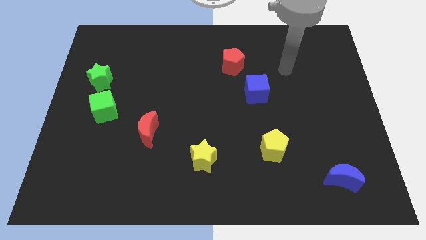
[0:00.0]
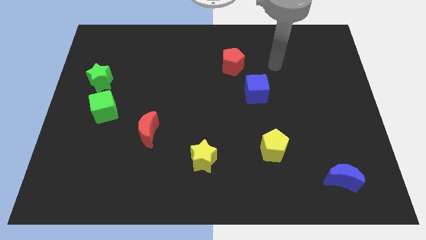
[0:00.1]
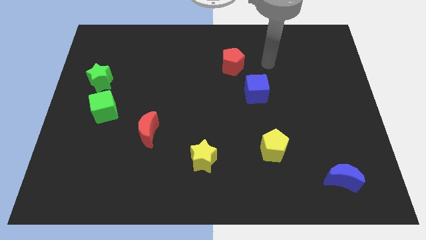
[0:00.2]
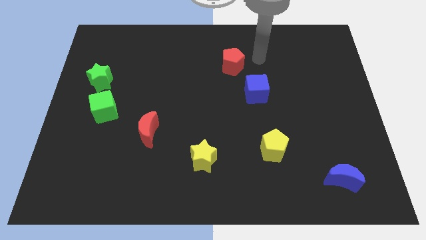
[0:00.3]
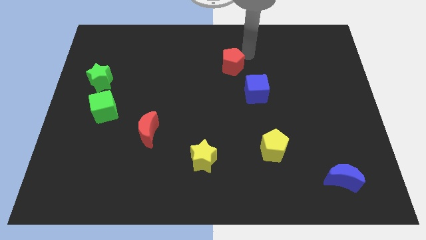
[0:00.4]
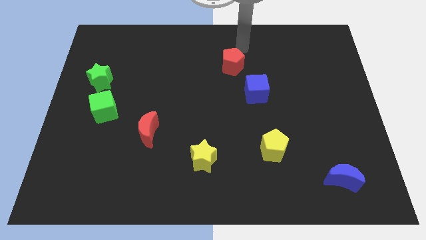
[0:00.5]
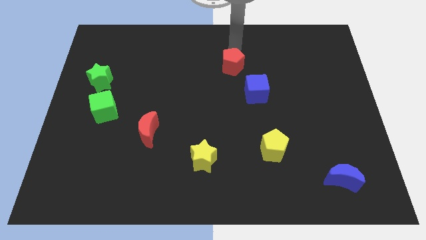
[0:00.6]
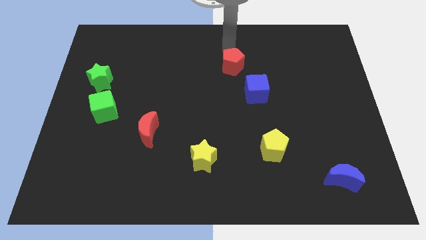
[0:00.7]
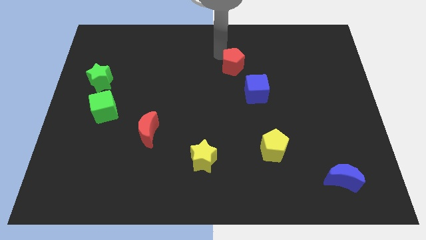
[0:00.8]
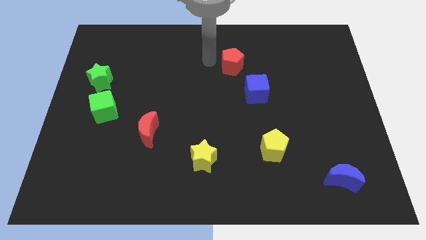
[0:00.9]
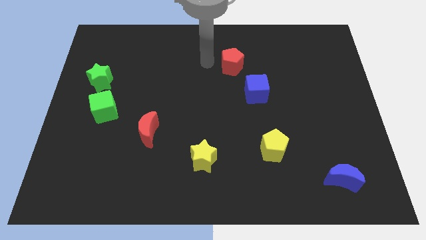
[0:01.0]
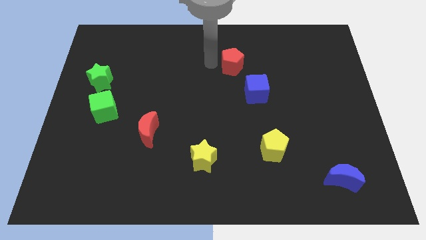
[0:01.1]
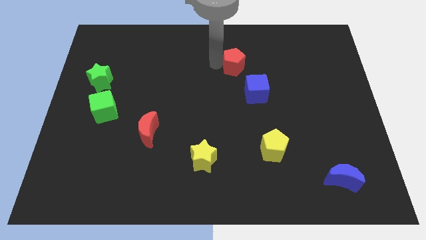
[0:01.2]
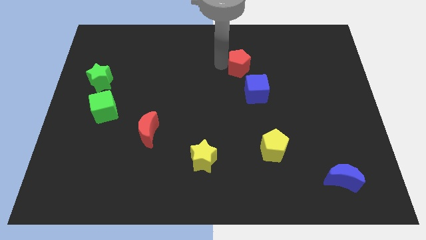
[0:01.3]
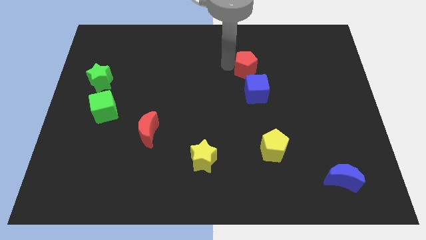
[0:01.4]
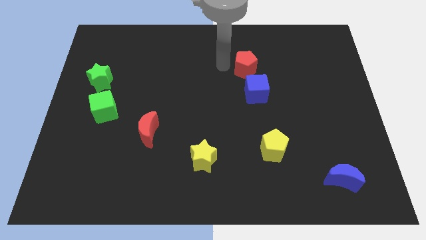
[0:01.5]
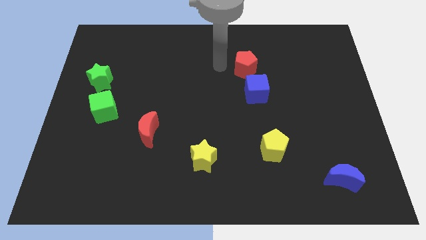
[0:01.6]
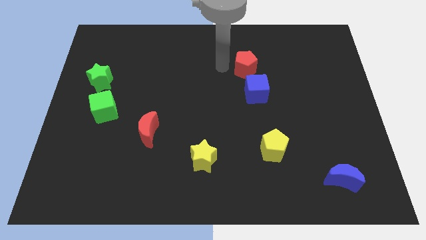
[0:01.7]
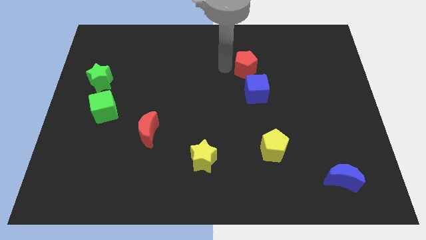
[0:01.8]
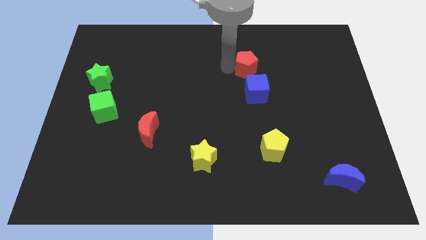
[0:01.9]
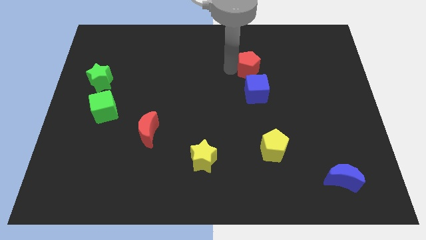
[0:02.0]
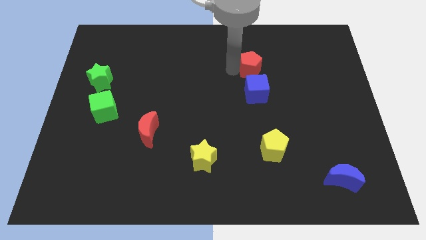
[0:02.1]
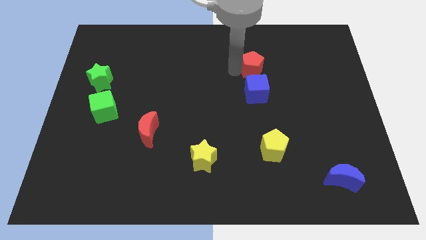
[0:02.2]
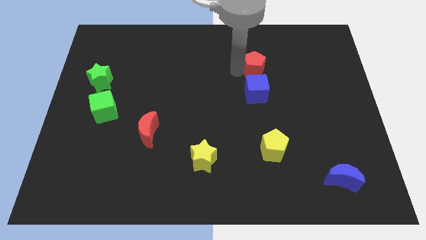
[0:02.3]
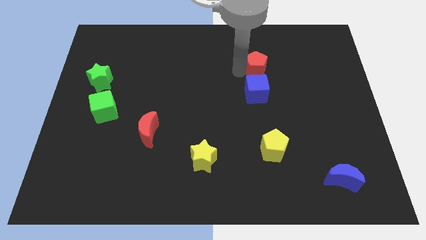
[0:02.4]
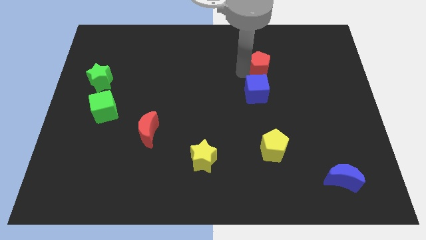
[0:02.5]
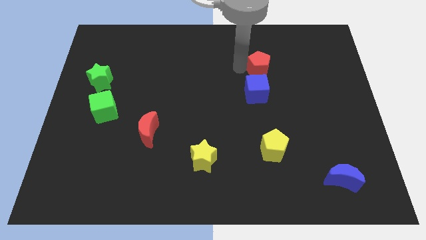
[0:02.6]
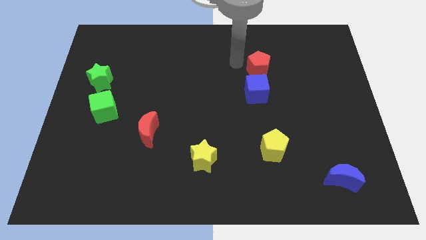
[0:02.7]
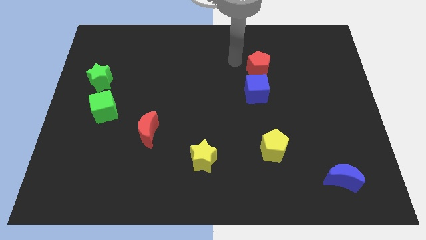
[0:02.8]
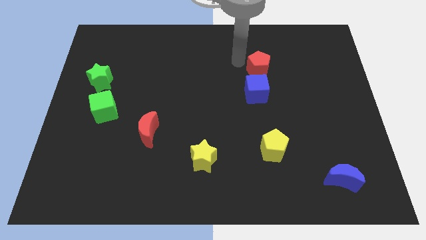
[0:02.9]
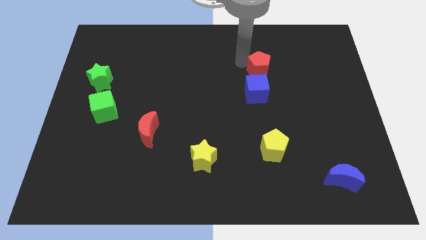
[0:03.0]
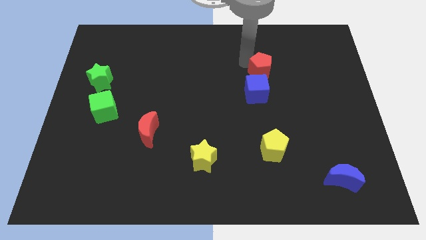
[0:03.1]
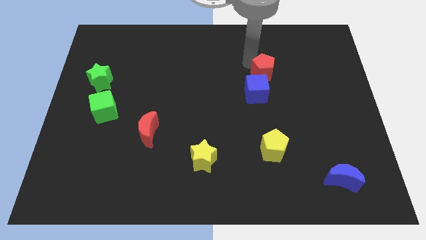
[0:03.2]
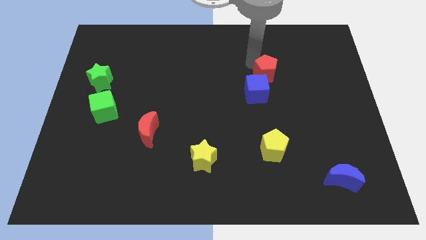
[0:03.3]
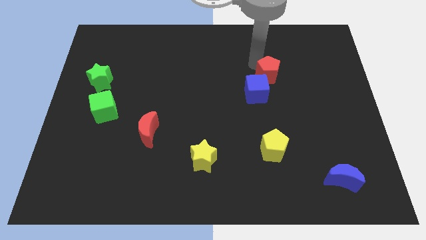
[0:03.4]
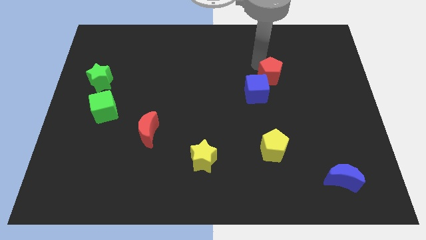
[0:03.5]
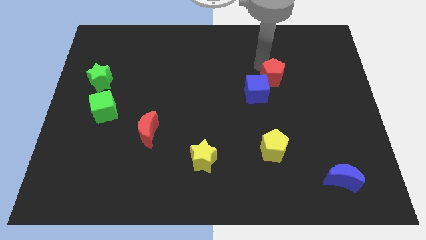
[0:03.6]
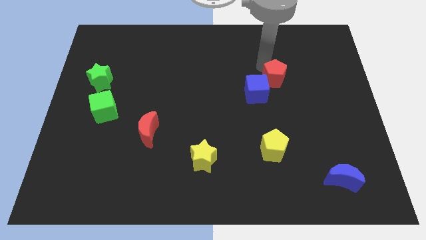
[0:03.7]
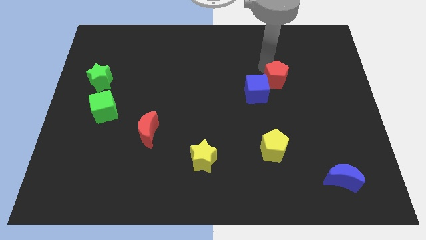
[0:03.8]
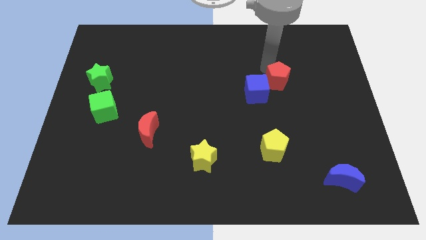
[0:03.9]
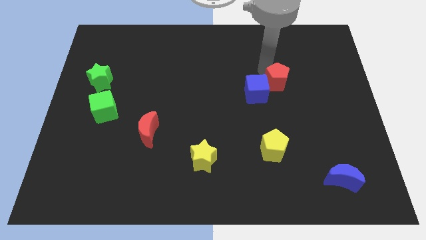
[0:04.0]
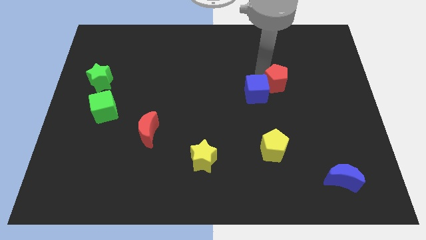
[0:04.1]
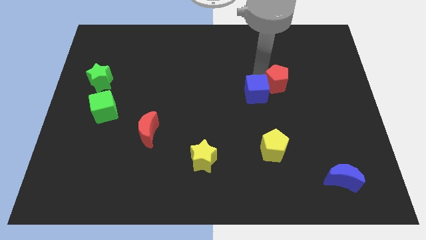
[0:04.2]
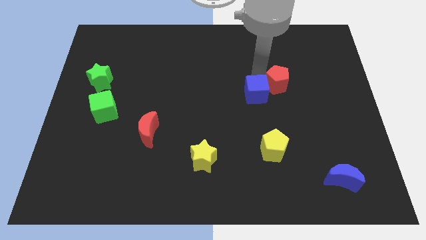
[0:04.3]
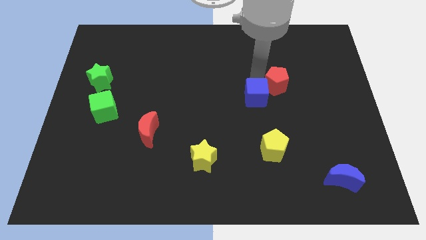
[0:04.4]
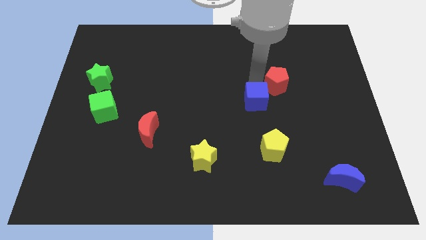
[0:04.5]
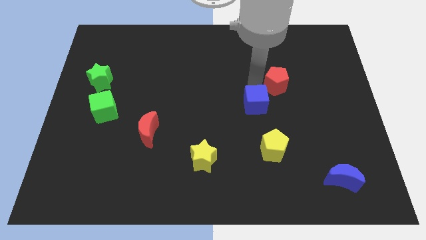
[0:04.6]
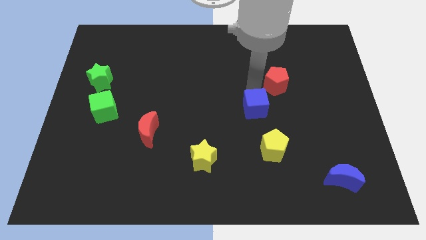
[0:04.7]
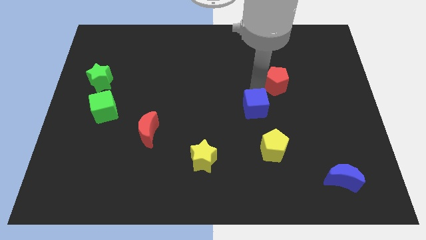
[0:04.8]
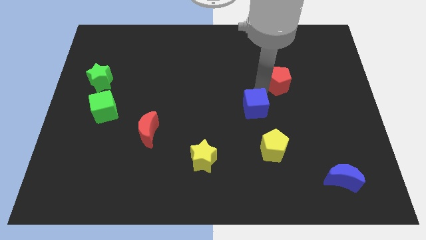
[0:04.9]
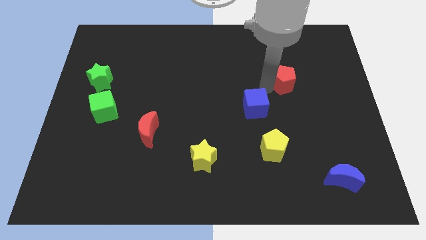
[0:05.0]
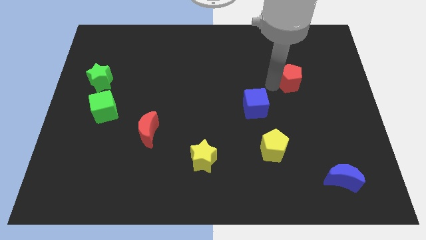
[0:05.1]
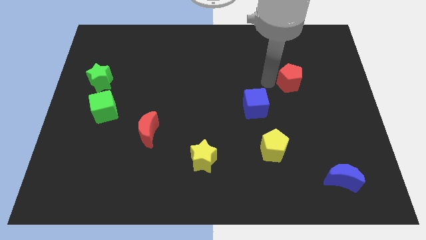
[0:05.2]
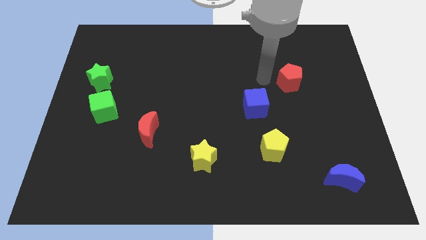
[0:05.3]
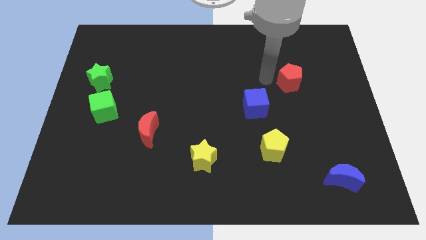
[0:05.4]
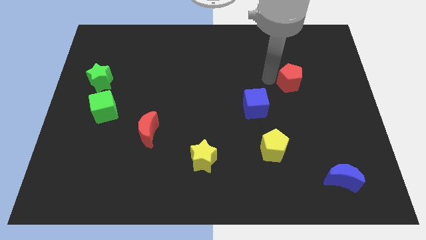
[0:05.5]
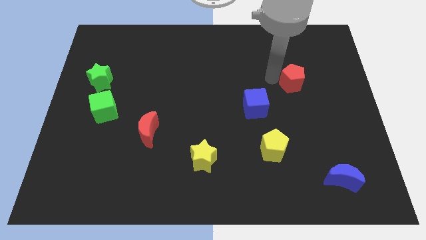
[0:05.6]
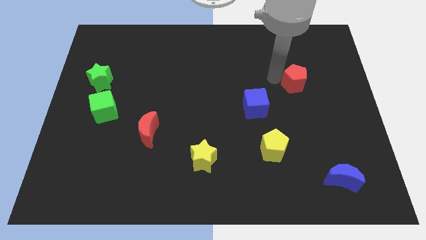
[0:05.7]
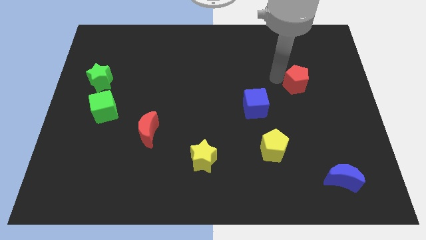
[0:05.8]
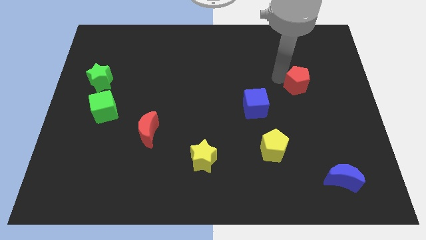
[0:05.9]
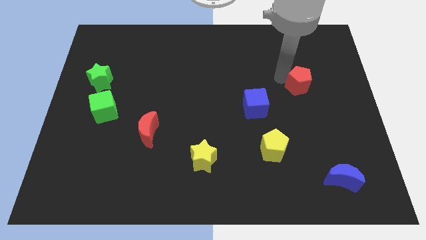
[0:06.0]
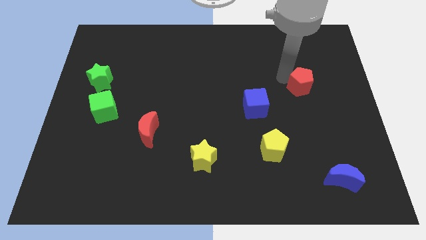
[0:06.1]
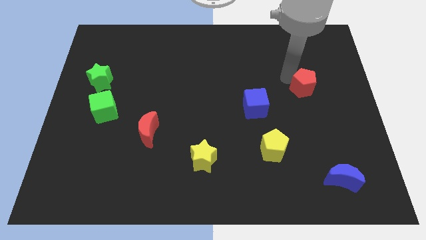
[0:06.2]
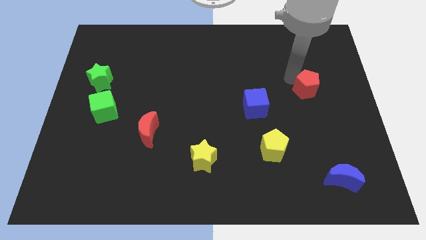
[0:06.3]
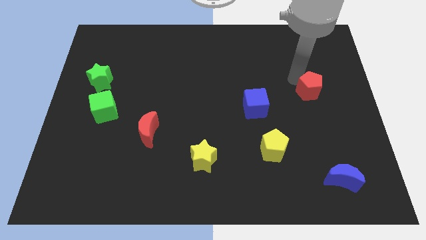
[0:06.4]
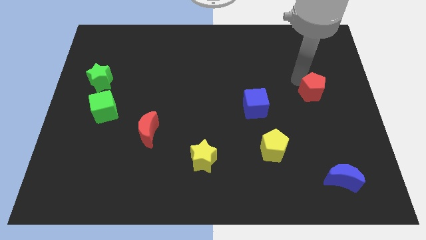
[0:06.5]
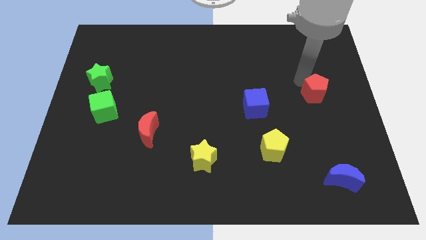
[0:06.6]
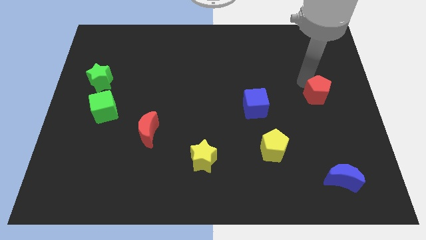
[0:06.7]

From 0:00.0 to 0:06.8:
push the red pentagon to the center right
